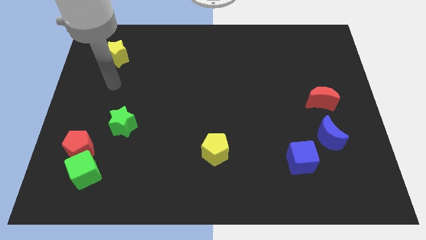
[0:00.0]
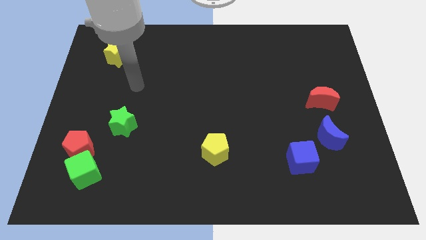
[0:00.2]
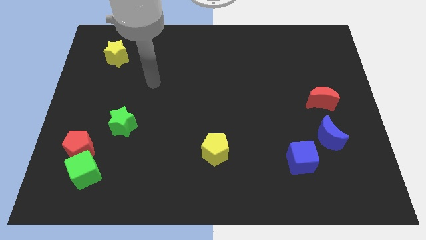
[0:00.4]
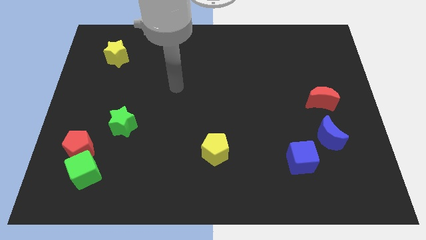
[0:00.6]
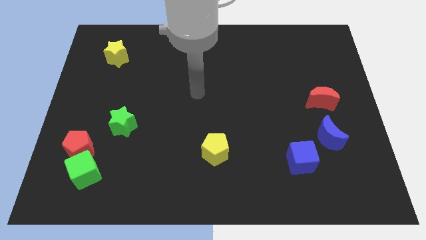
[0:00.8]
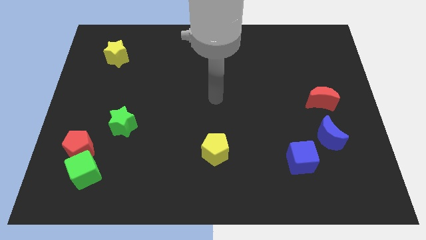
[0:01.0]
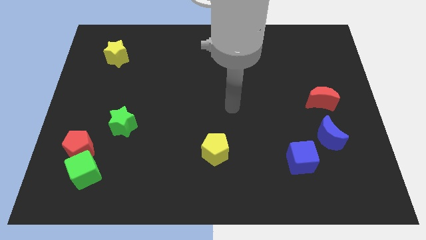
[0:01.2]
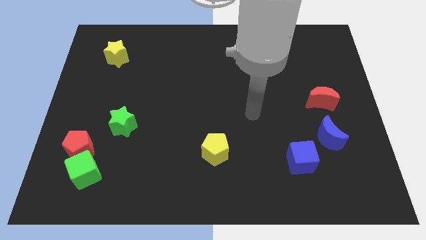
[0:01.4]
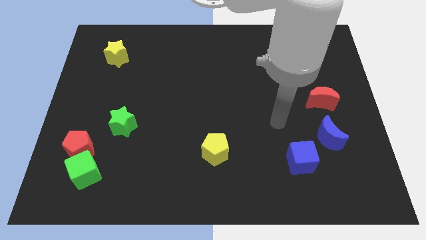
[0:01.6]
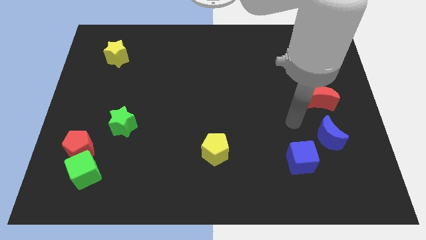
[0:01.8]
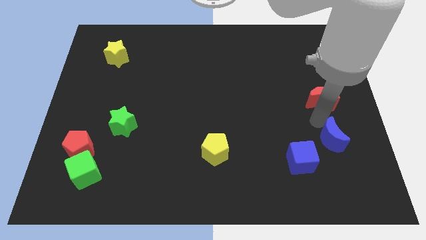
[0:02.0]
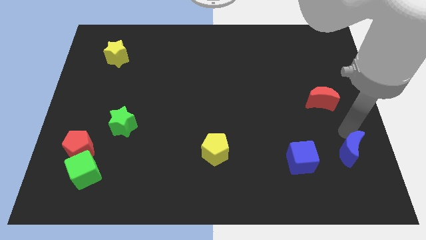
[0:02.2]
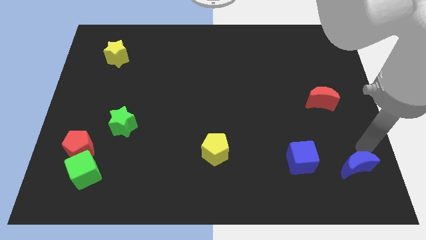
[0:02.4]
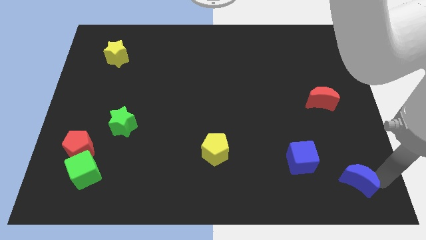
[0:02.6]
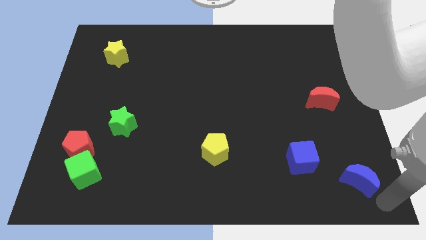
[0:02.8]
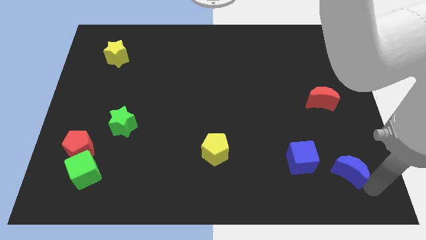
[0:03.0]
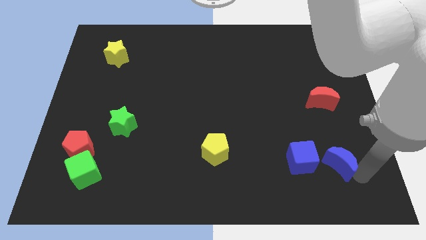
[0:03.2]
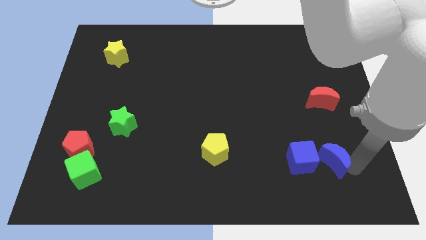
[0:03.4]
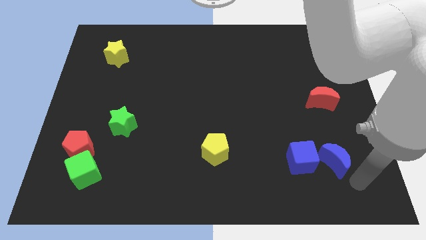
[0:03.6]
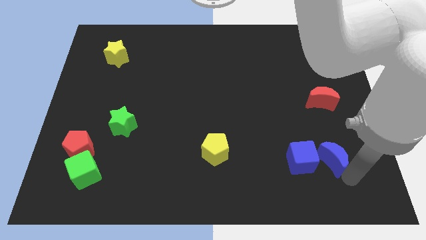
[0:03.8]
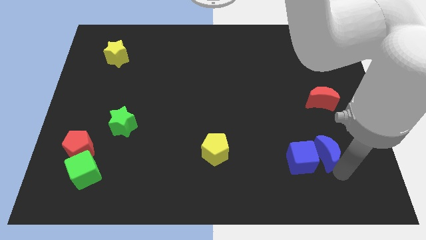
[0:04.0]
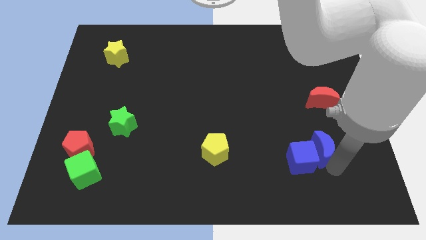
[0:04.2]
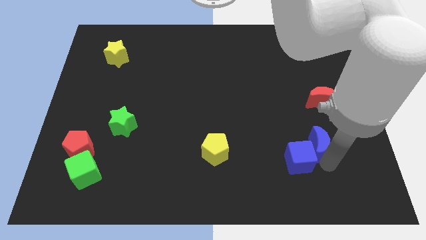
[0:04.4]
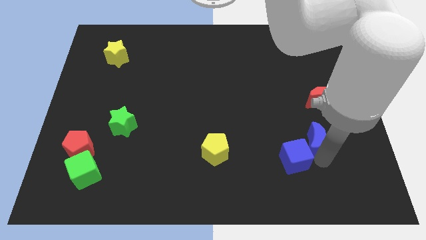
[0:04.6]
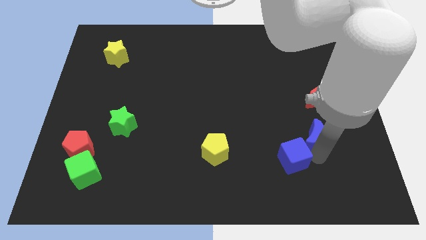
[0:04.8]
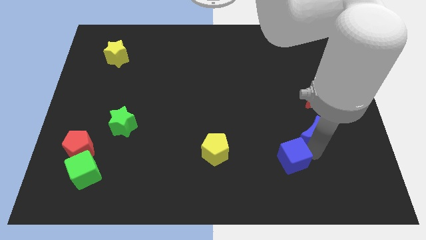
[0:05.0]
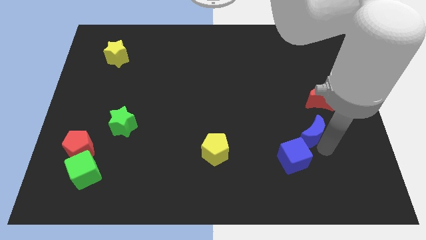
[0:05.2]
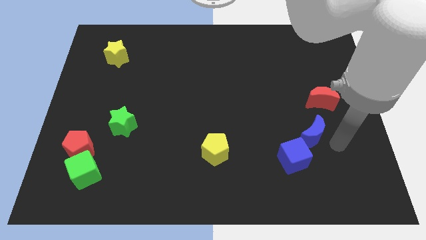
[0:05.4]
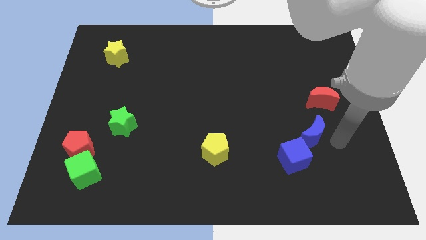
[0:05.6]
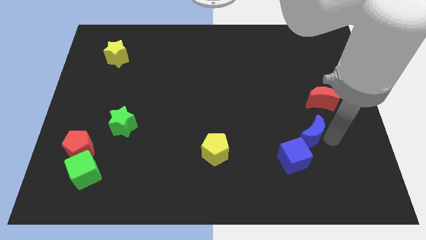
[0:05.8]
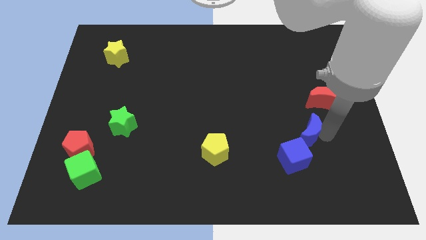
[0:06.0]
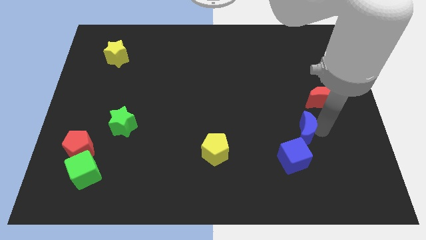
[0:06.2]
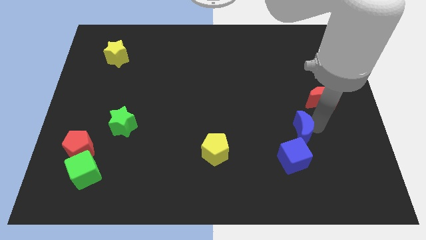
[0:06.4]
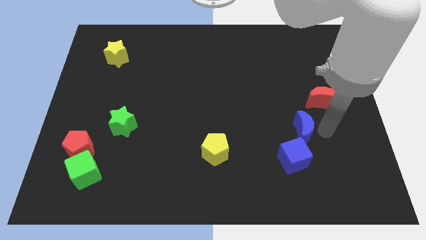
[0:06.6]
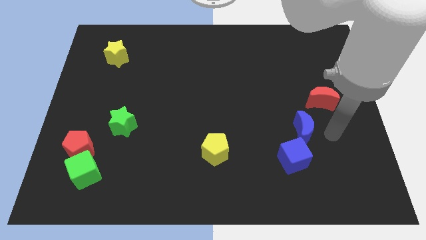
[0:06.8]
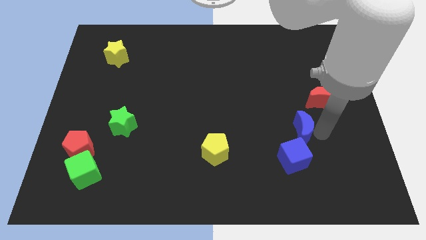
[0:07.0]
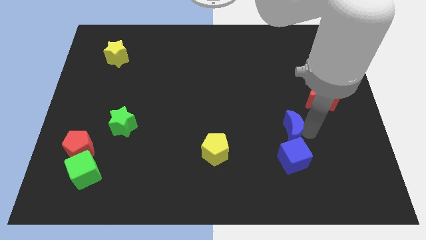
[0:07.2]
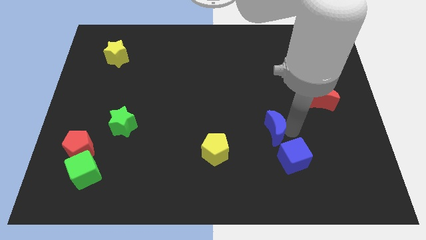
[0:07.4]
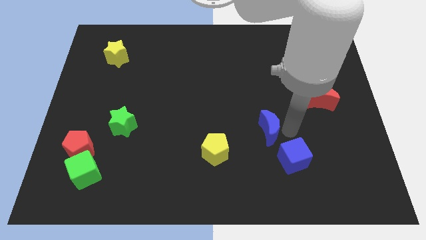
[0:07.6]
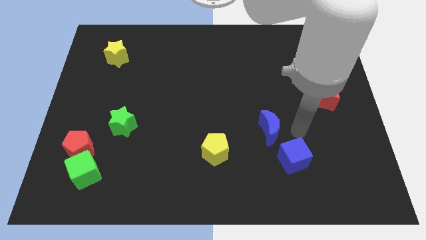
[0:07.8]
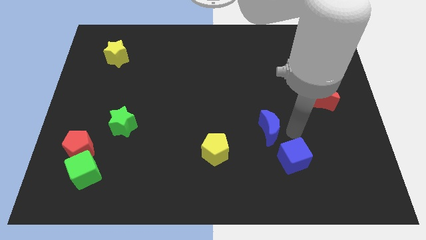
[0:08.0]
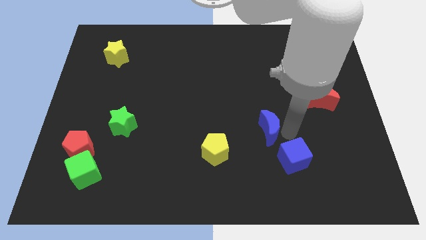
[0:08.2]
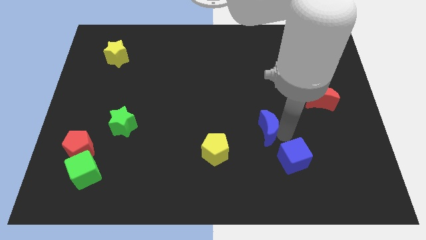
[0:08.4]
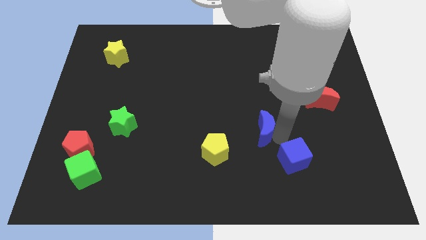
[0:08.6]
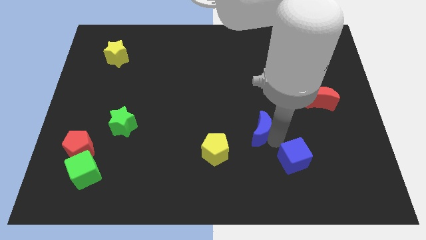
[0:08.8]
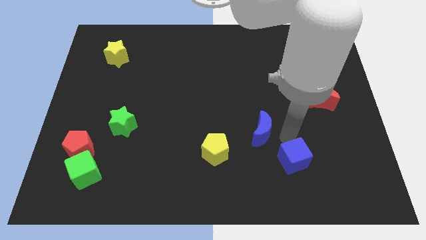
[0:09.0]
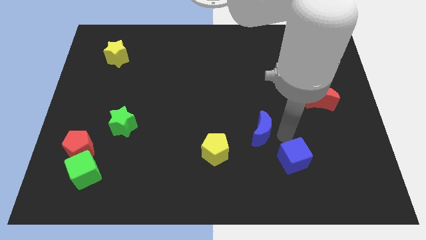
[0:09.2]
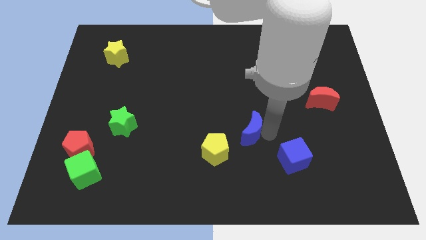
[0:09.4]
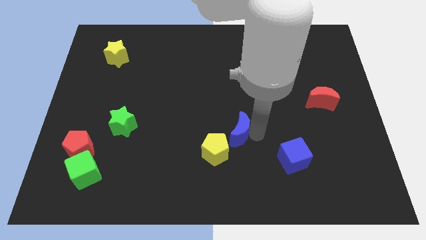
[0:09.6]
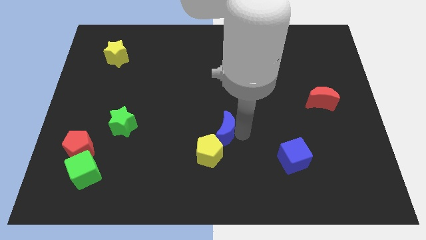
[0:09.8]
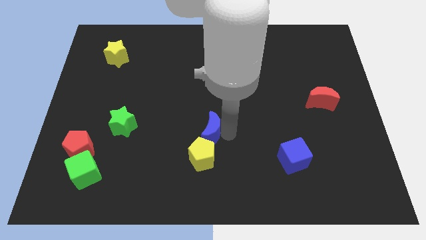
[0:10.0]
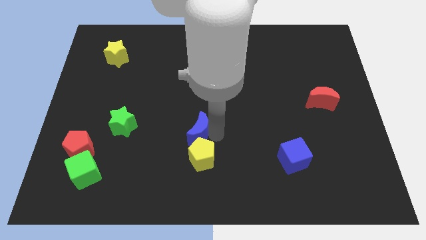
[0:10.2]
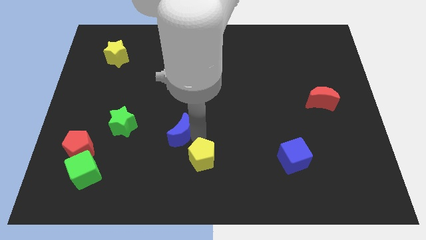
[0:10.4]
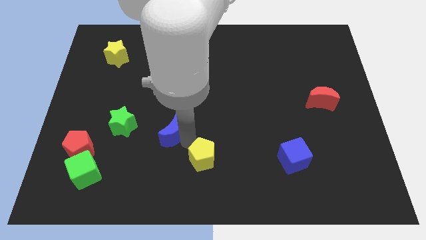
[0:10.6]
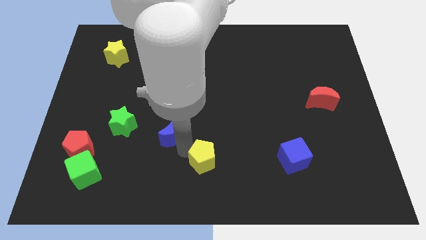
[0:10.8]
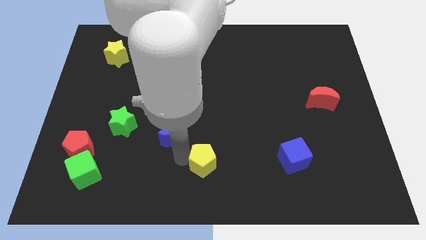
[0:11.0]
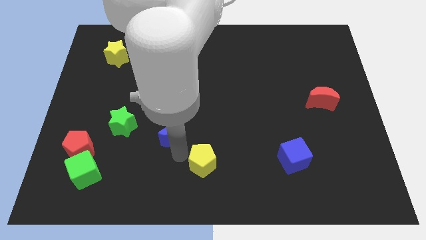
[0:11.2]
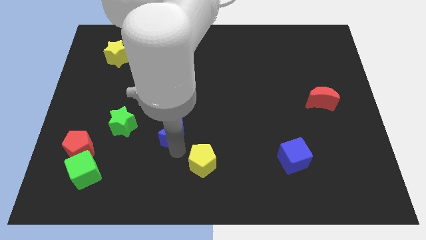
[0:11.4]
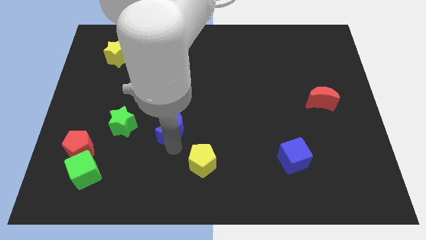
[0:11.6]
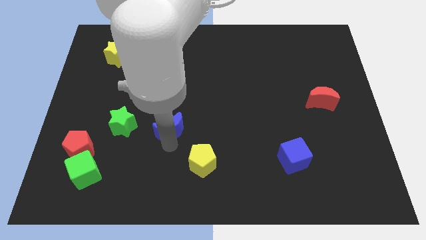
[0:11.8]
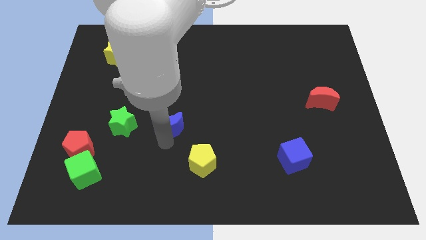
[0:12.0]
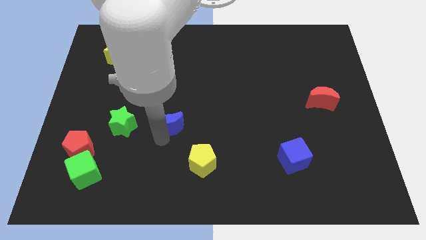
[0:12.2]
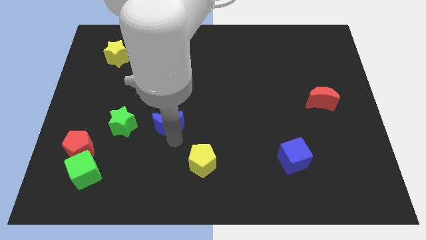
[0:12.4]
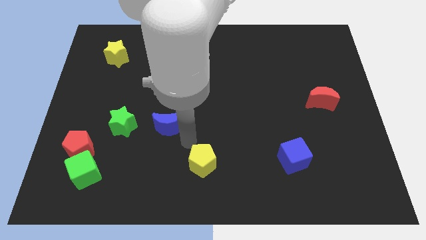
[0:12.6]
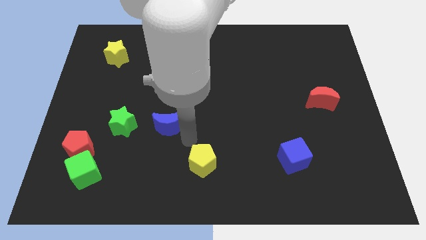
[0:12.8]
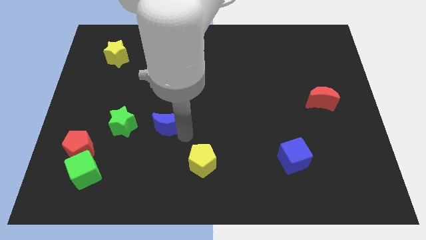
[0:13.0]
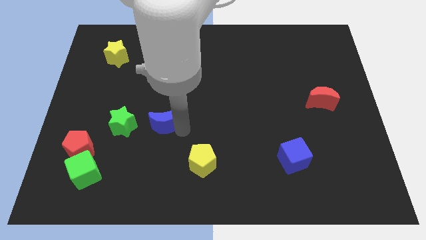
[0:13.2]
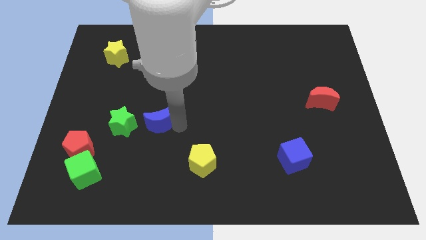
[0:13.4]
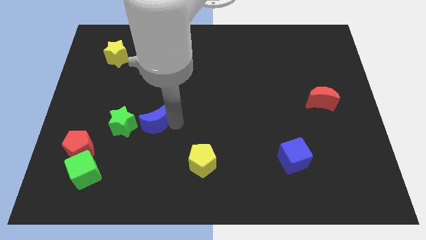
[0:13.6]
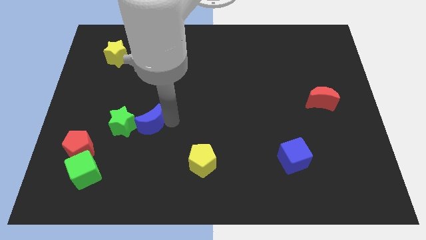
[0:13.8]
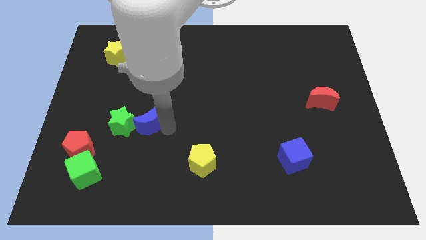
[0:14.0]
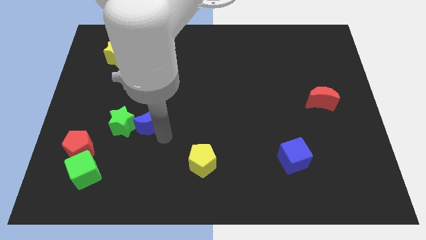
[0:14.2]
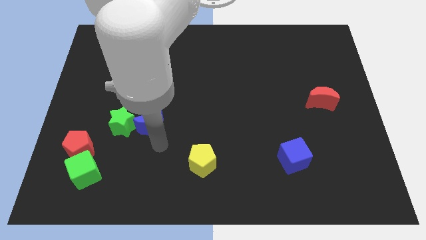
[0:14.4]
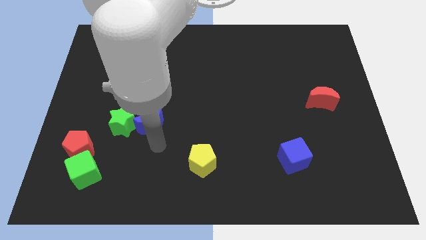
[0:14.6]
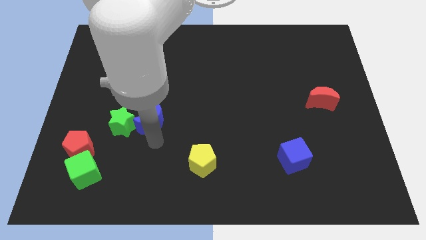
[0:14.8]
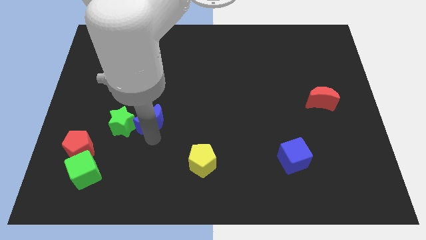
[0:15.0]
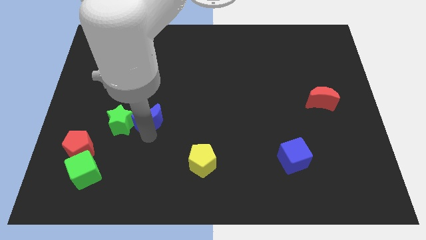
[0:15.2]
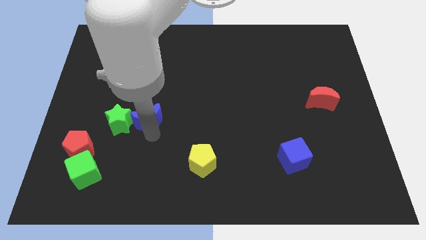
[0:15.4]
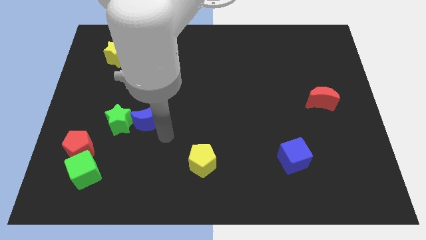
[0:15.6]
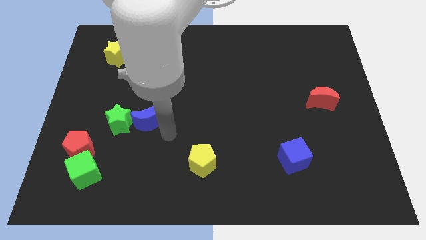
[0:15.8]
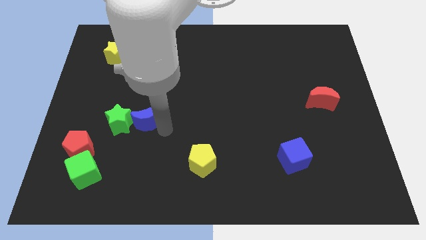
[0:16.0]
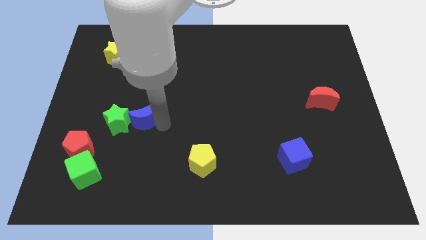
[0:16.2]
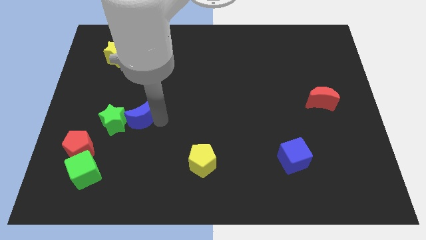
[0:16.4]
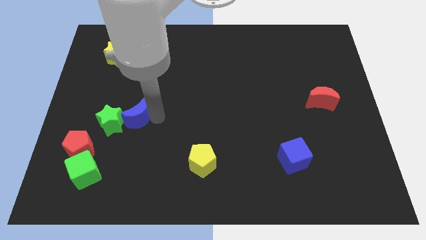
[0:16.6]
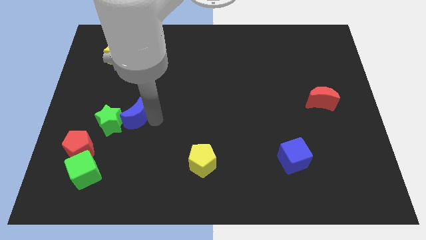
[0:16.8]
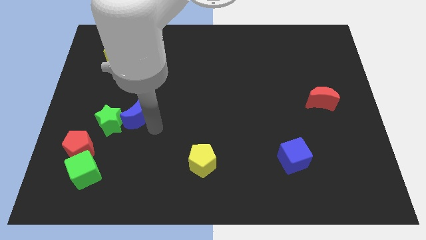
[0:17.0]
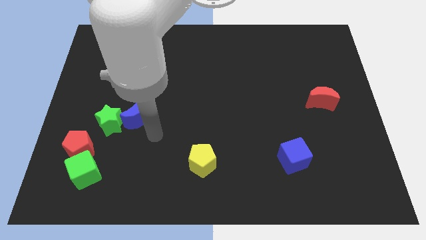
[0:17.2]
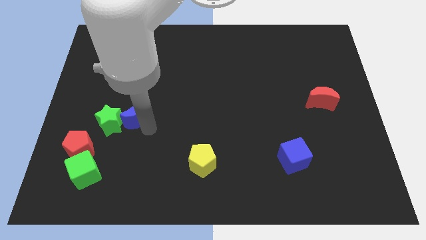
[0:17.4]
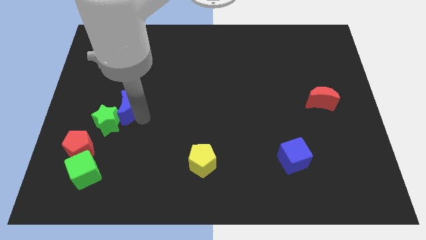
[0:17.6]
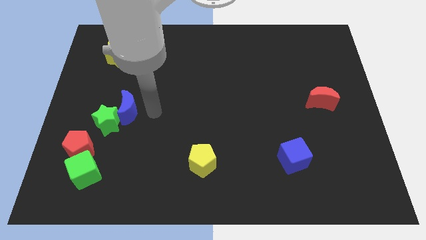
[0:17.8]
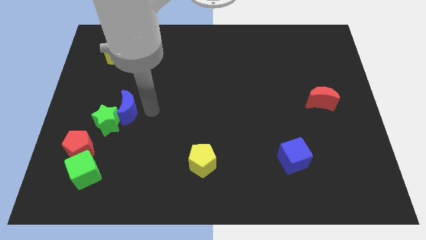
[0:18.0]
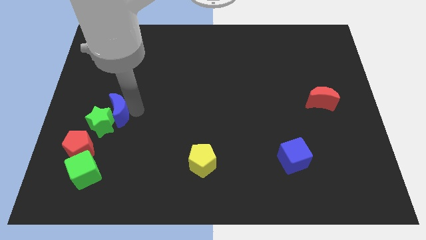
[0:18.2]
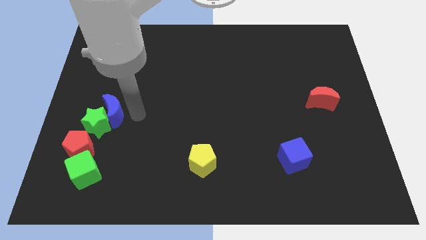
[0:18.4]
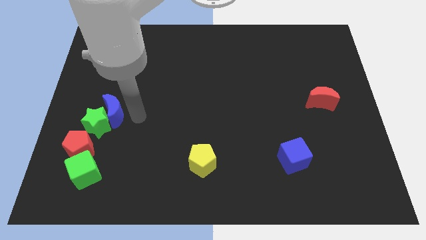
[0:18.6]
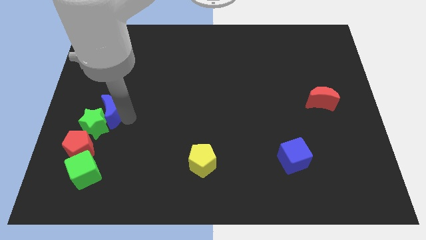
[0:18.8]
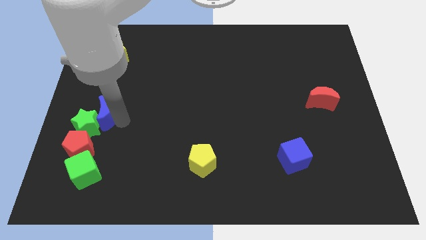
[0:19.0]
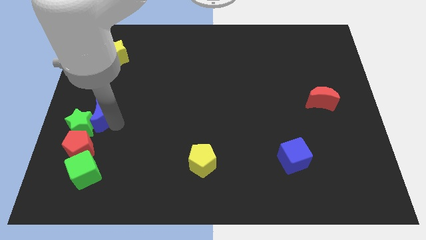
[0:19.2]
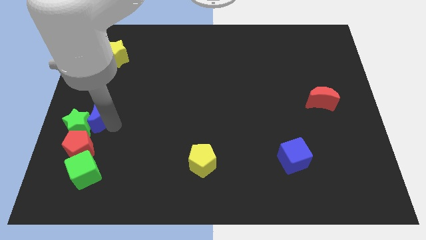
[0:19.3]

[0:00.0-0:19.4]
move the blue moon to the left side
